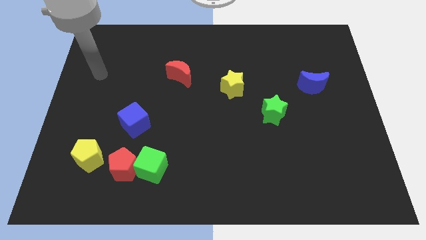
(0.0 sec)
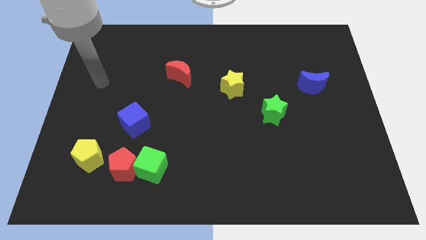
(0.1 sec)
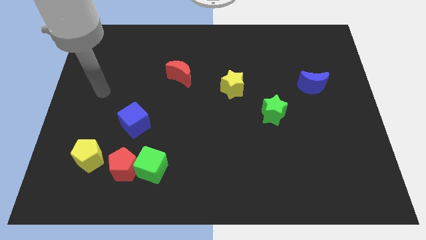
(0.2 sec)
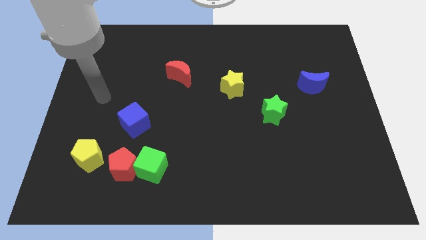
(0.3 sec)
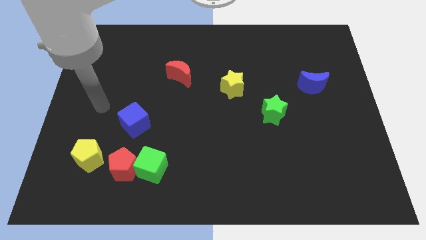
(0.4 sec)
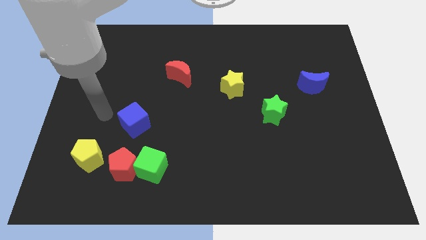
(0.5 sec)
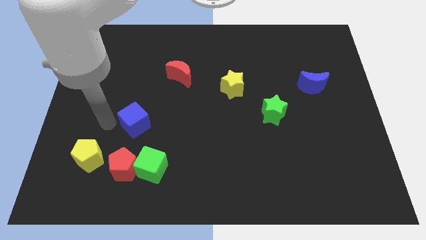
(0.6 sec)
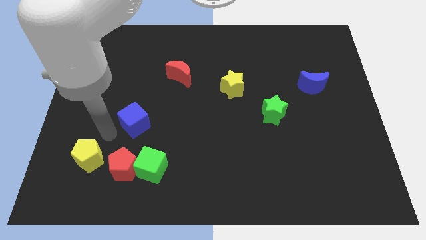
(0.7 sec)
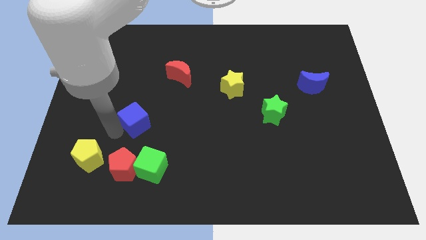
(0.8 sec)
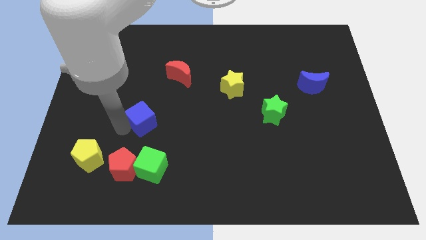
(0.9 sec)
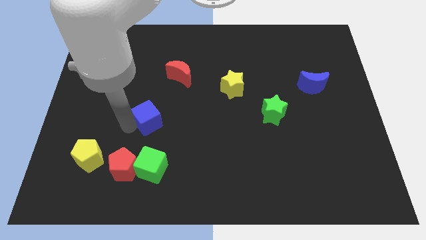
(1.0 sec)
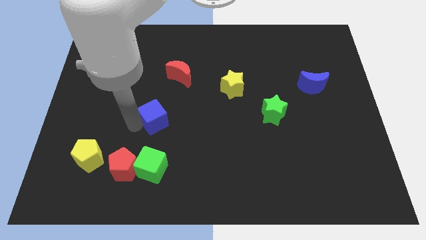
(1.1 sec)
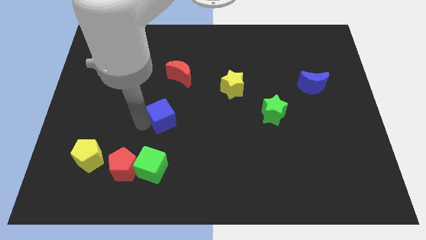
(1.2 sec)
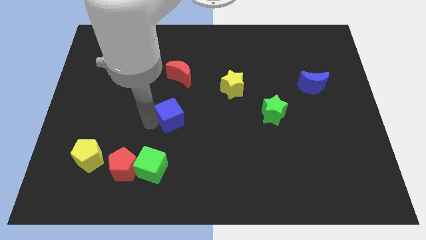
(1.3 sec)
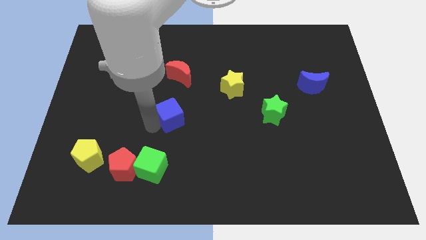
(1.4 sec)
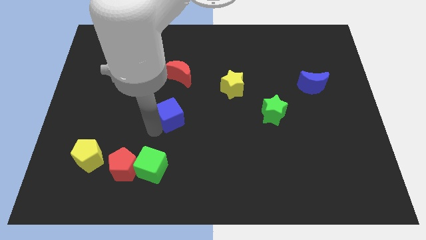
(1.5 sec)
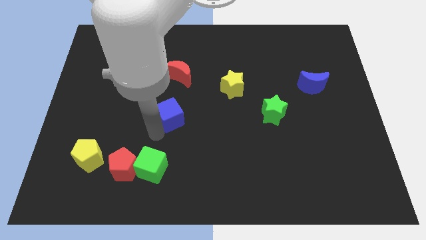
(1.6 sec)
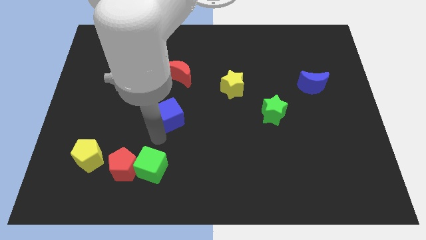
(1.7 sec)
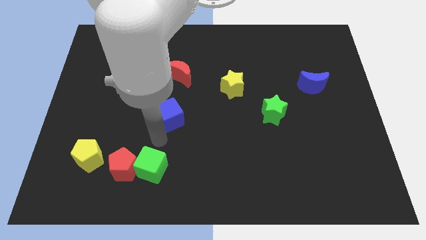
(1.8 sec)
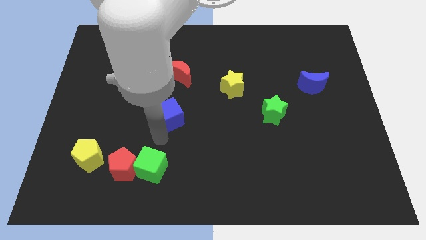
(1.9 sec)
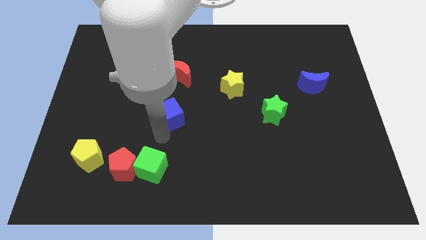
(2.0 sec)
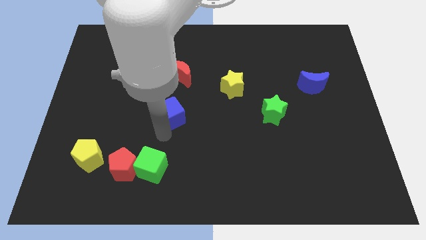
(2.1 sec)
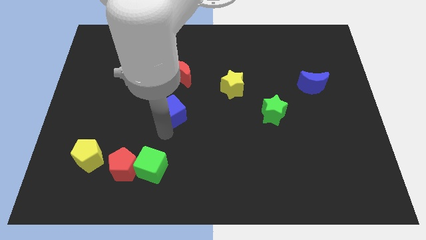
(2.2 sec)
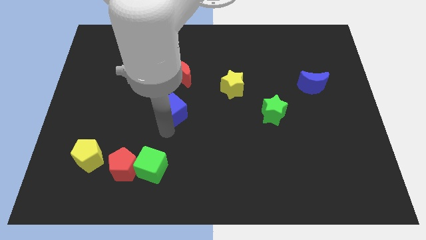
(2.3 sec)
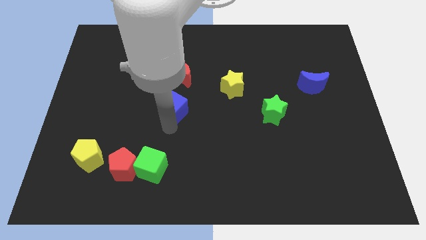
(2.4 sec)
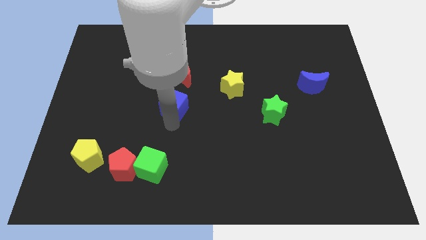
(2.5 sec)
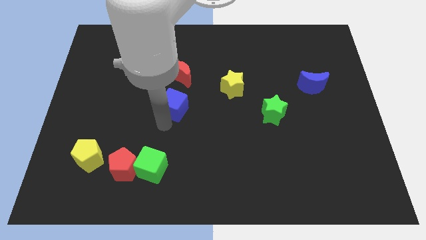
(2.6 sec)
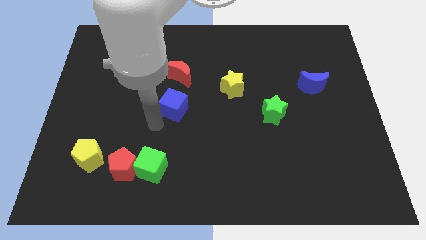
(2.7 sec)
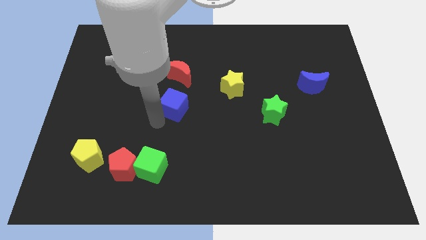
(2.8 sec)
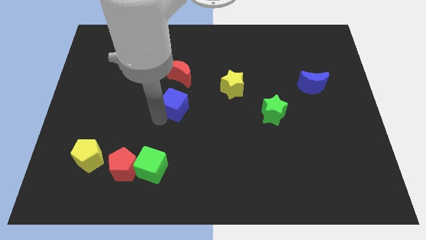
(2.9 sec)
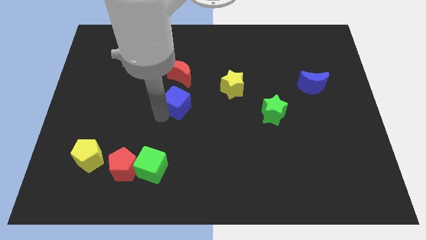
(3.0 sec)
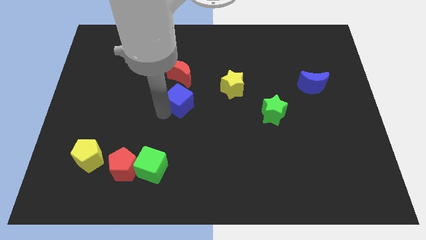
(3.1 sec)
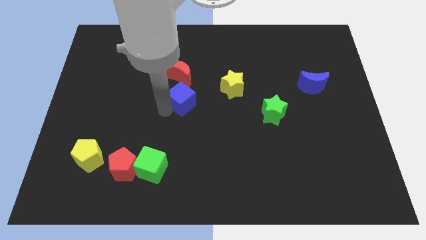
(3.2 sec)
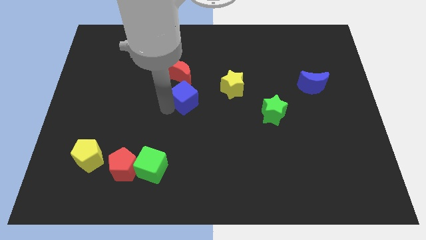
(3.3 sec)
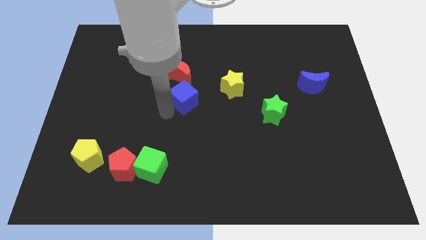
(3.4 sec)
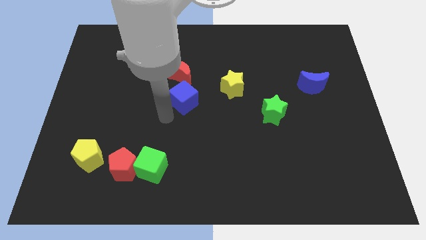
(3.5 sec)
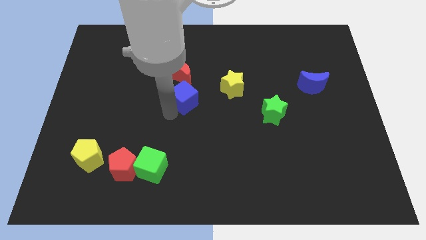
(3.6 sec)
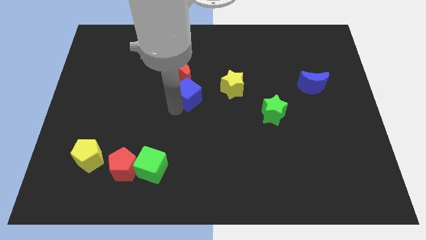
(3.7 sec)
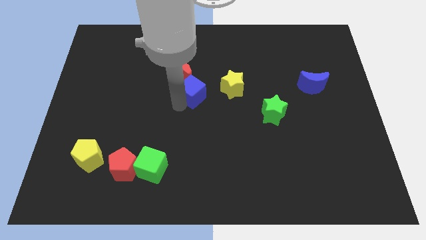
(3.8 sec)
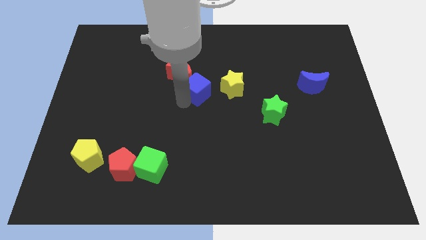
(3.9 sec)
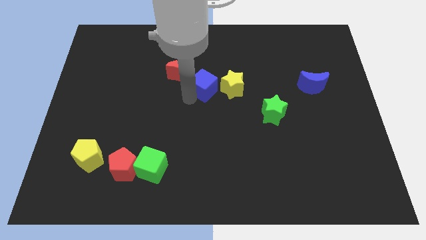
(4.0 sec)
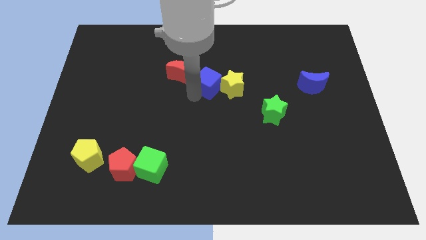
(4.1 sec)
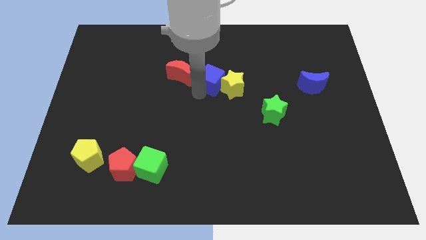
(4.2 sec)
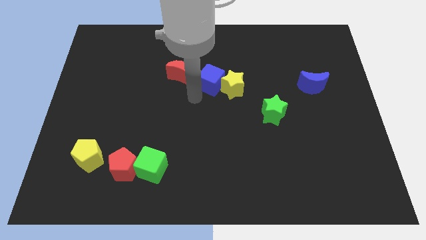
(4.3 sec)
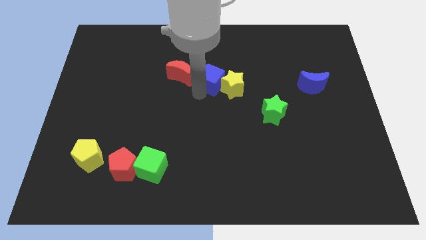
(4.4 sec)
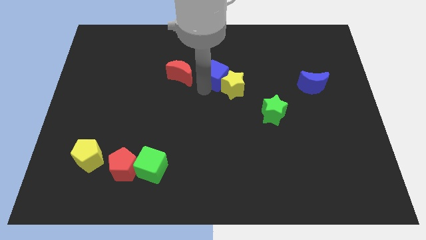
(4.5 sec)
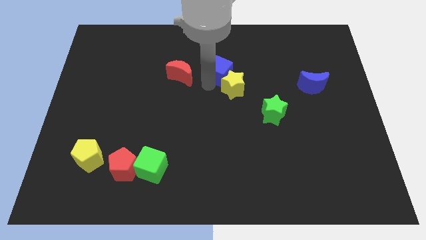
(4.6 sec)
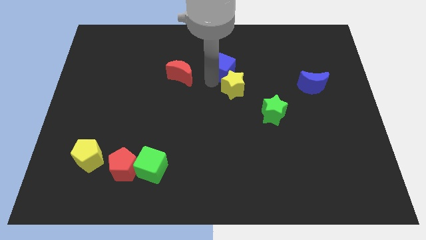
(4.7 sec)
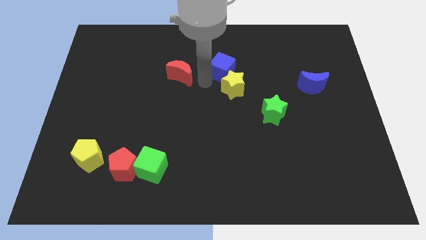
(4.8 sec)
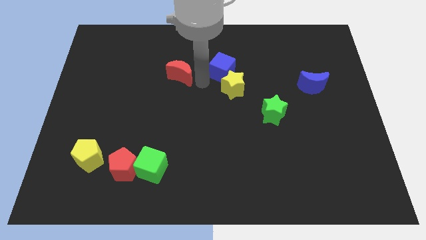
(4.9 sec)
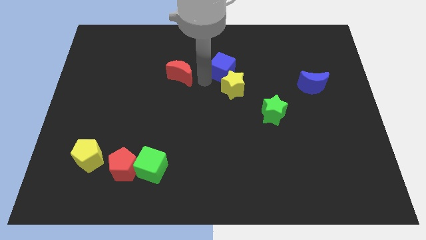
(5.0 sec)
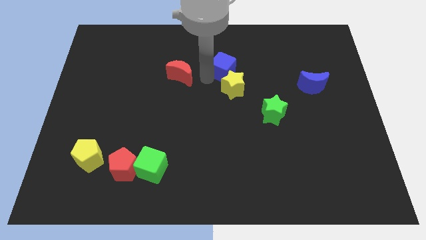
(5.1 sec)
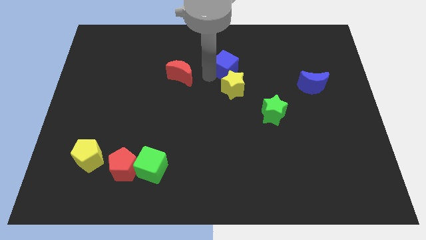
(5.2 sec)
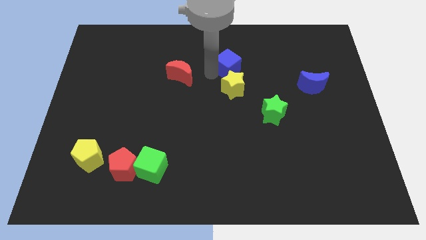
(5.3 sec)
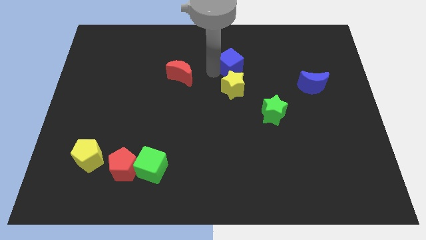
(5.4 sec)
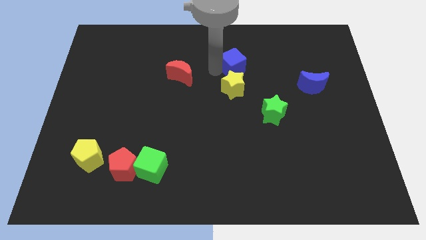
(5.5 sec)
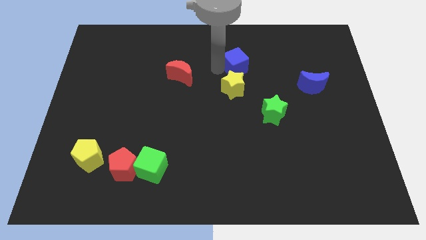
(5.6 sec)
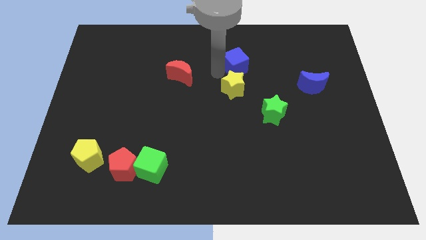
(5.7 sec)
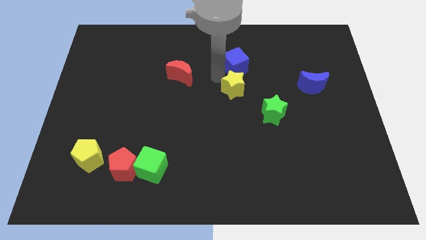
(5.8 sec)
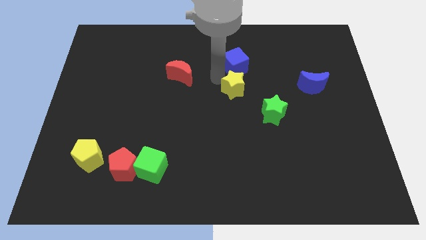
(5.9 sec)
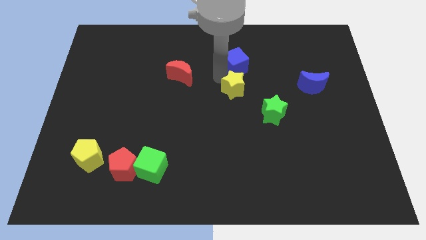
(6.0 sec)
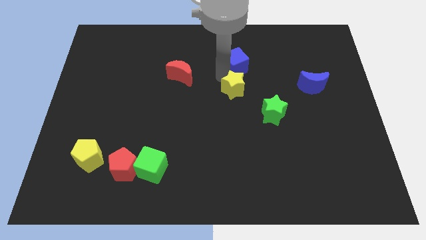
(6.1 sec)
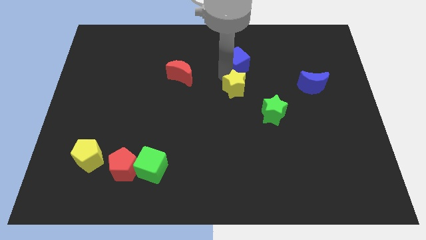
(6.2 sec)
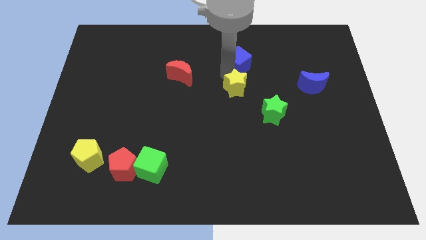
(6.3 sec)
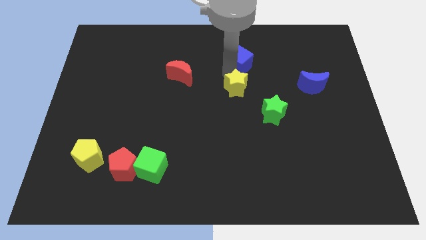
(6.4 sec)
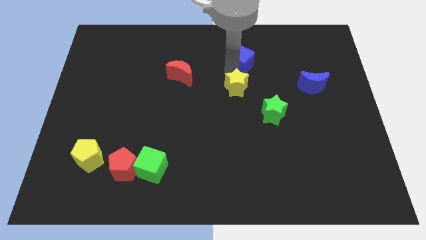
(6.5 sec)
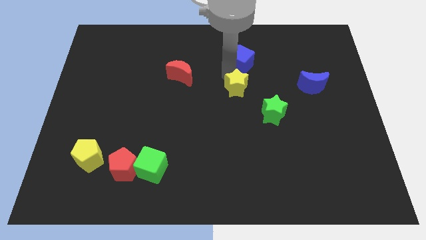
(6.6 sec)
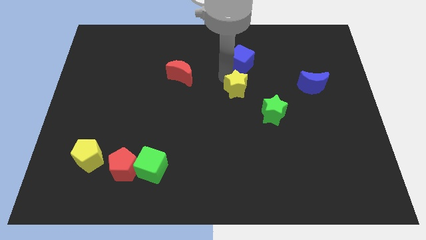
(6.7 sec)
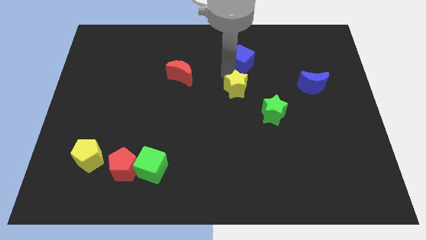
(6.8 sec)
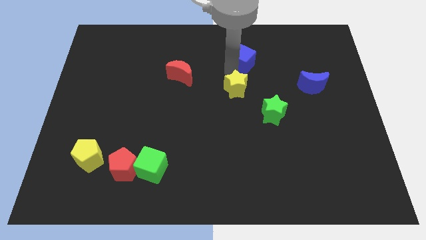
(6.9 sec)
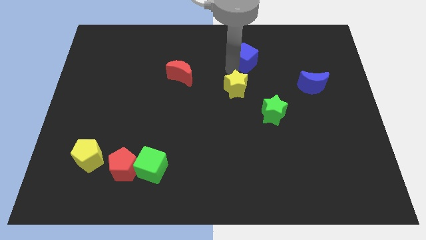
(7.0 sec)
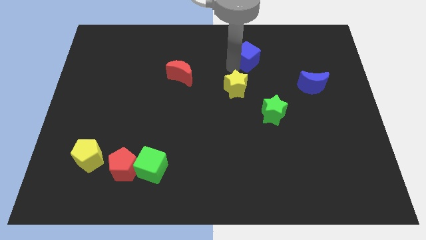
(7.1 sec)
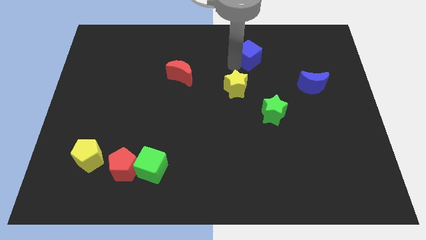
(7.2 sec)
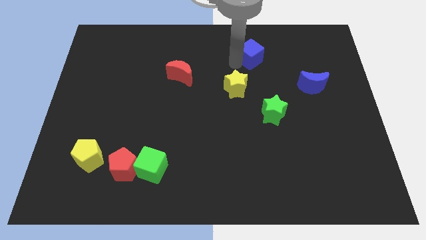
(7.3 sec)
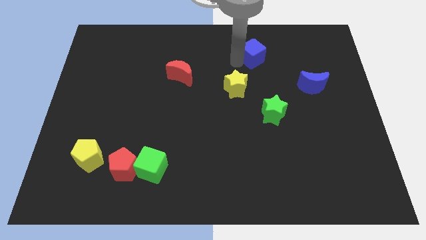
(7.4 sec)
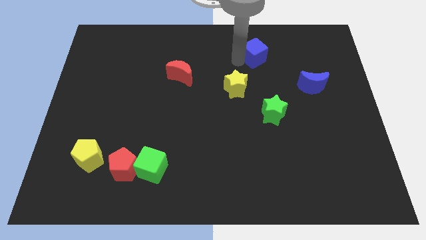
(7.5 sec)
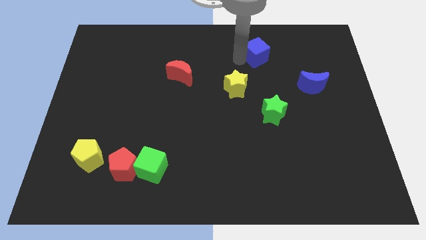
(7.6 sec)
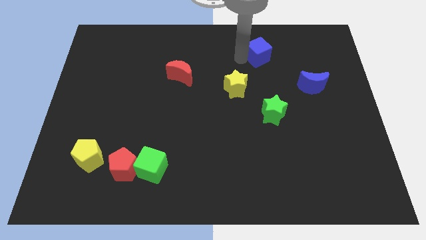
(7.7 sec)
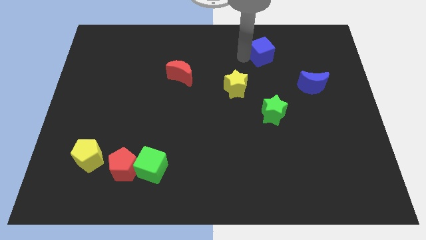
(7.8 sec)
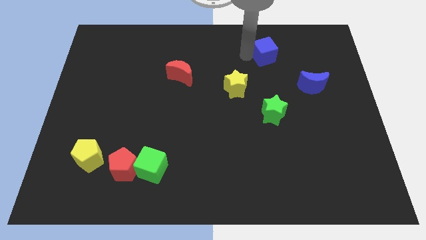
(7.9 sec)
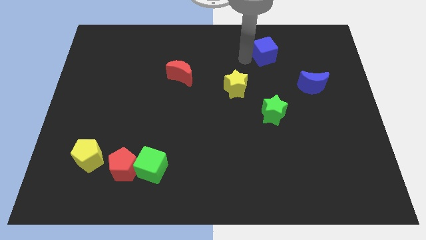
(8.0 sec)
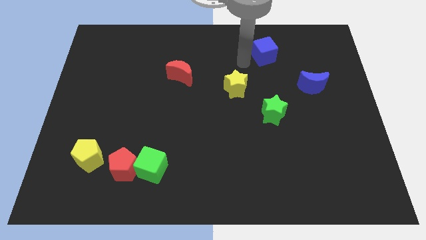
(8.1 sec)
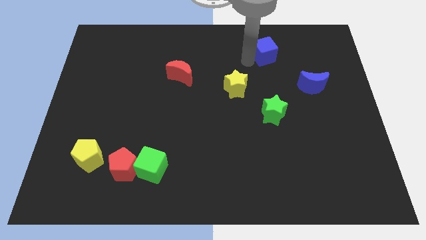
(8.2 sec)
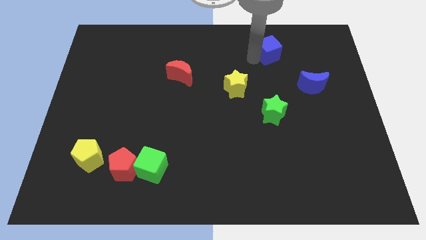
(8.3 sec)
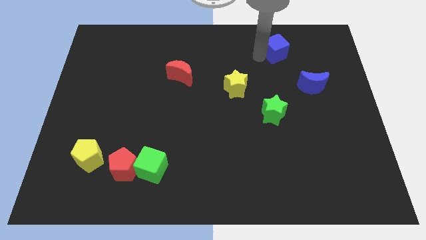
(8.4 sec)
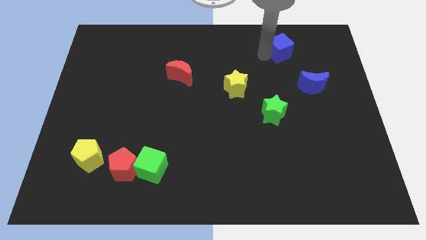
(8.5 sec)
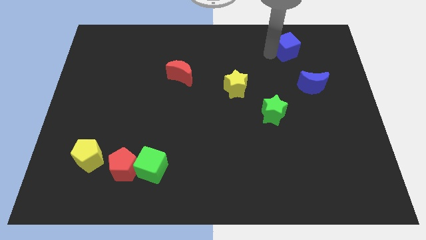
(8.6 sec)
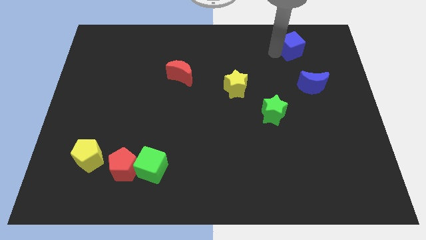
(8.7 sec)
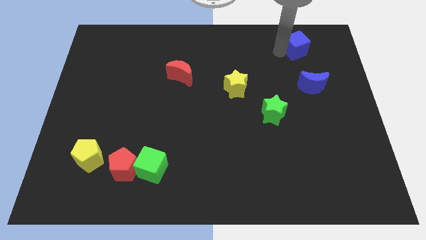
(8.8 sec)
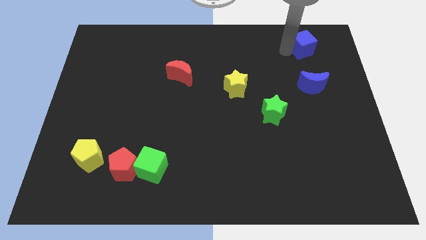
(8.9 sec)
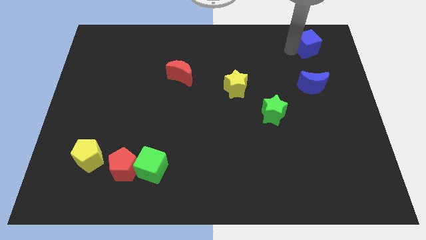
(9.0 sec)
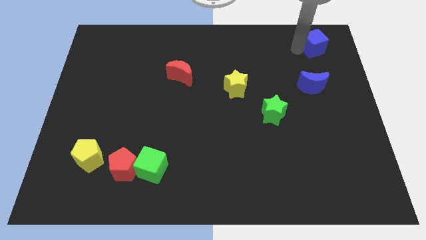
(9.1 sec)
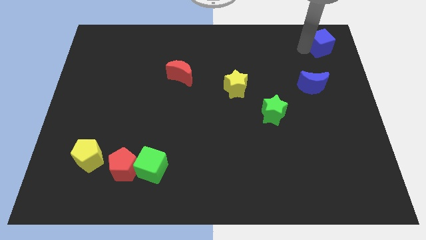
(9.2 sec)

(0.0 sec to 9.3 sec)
put the blue cube to the upper right corner
